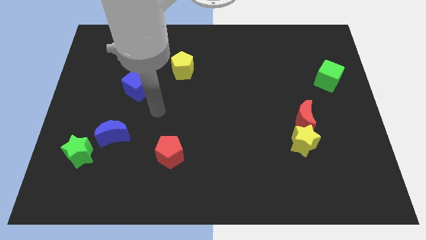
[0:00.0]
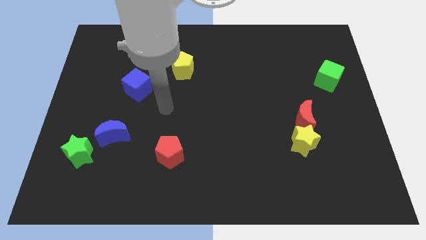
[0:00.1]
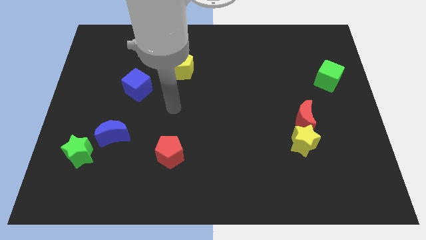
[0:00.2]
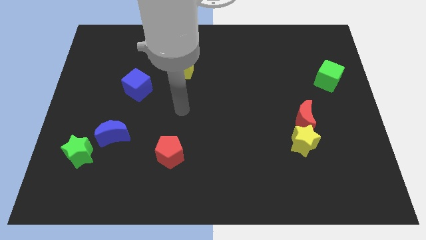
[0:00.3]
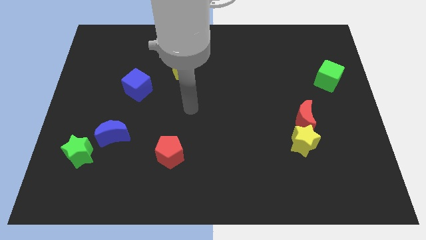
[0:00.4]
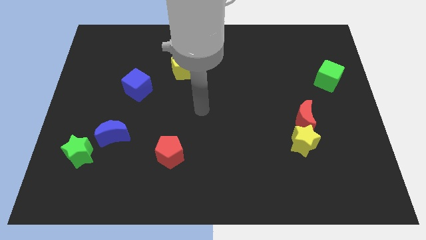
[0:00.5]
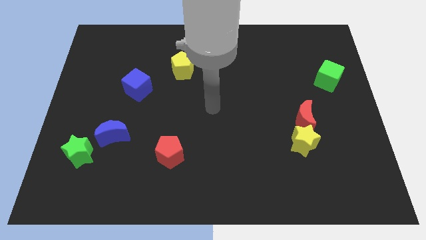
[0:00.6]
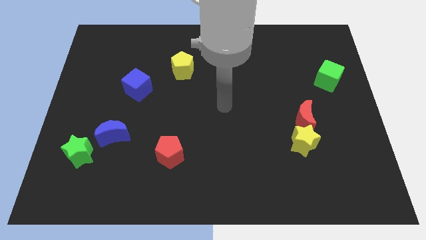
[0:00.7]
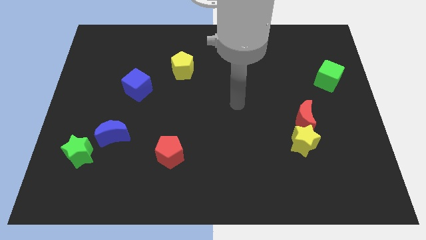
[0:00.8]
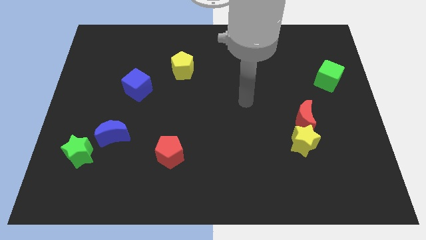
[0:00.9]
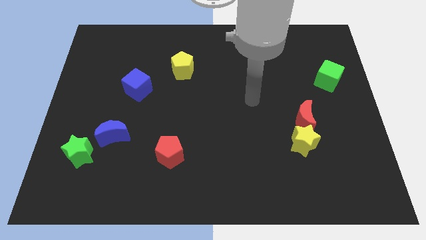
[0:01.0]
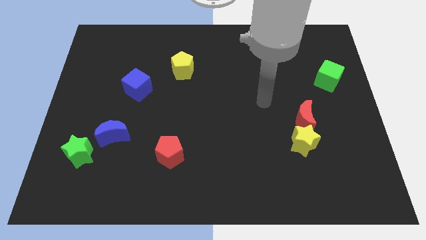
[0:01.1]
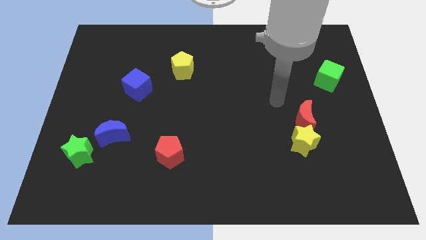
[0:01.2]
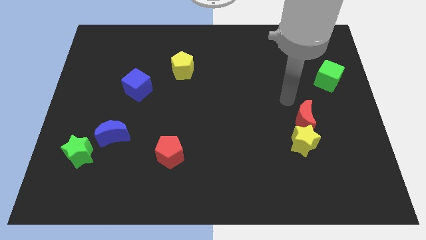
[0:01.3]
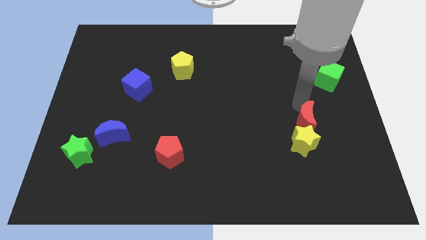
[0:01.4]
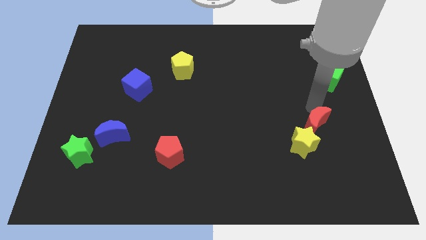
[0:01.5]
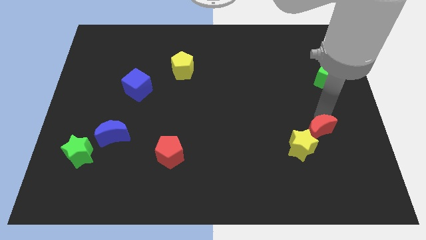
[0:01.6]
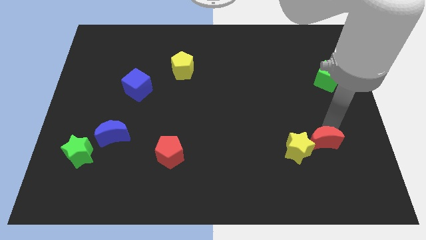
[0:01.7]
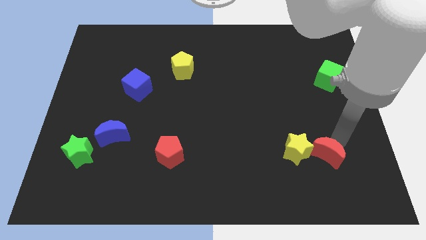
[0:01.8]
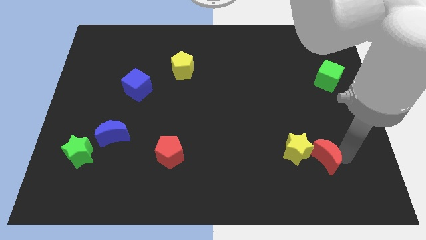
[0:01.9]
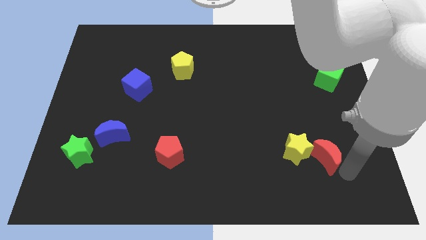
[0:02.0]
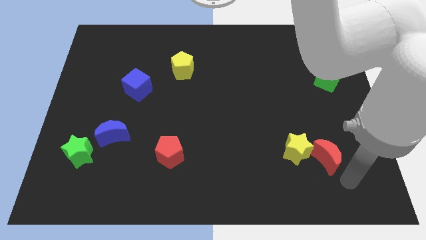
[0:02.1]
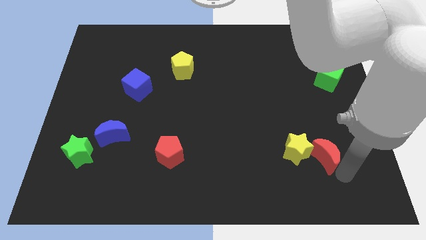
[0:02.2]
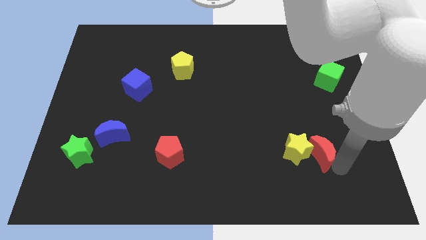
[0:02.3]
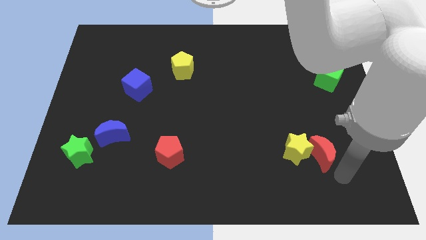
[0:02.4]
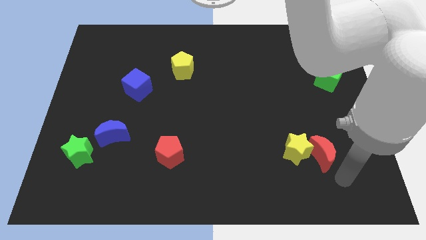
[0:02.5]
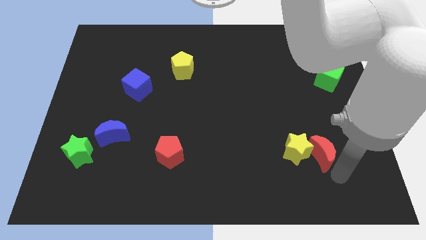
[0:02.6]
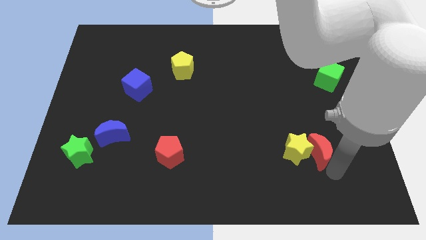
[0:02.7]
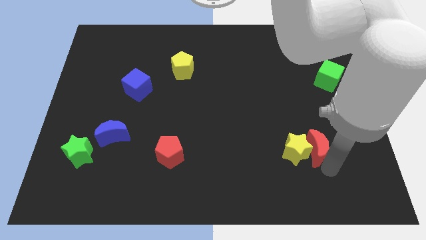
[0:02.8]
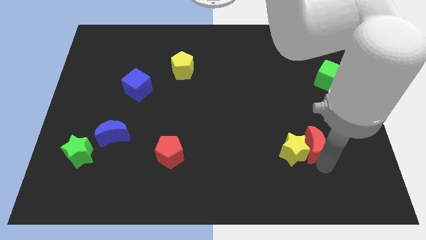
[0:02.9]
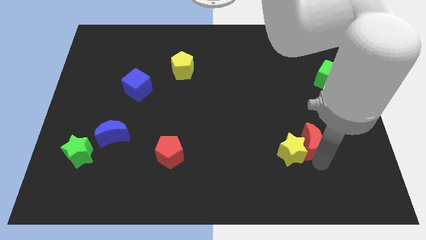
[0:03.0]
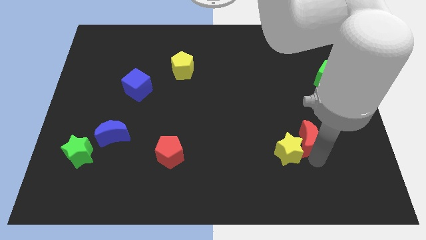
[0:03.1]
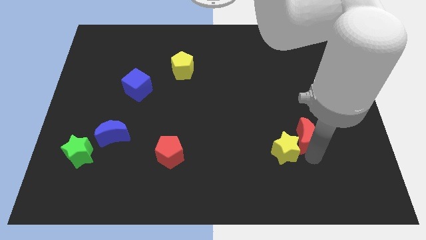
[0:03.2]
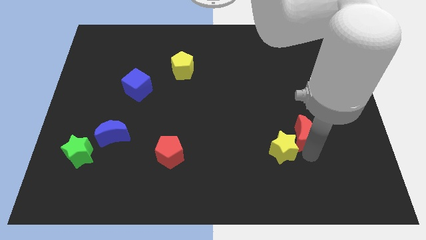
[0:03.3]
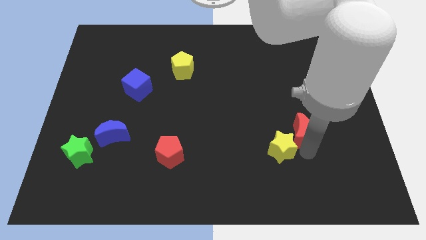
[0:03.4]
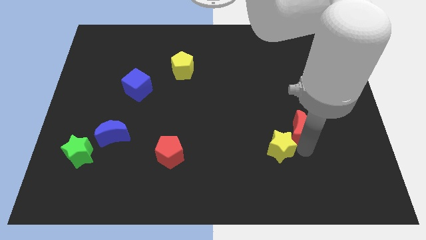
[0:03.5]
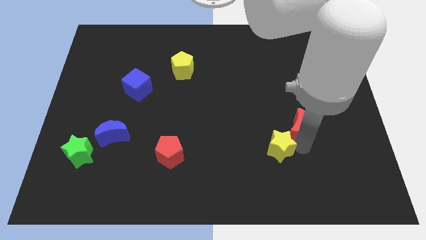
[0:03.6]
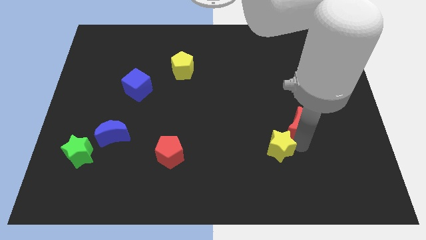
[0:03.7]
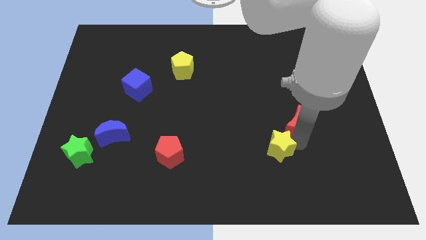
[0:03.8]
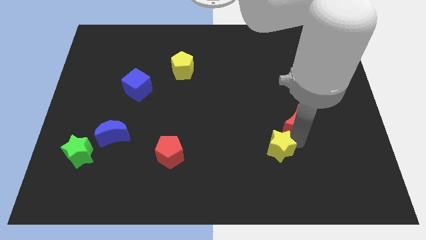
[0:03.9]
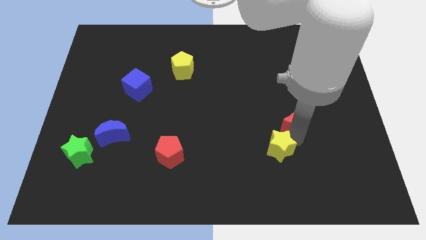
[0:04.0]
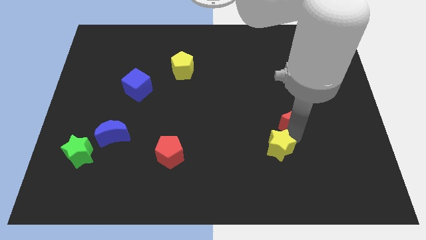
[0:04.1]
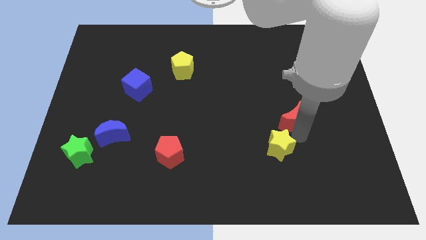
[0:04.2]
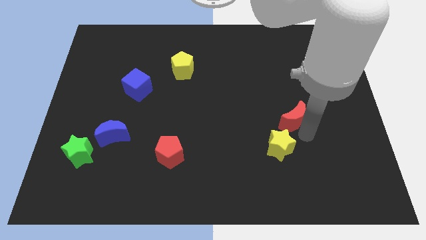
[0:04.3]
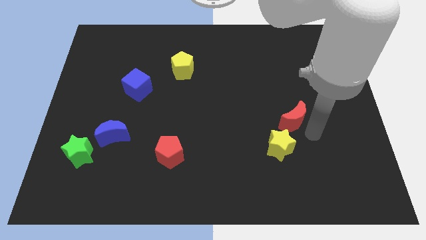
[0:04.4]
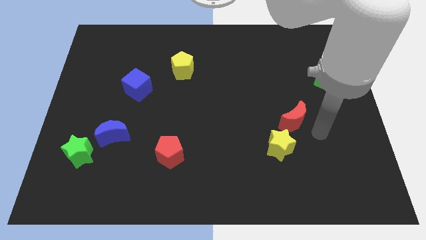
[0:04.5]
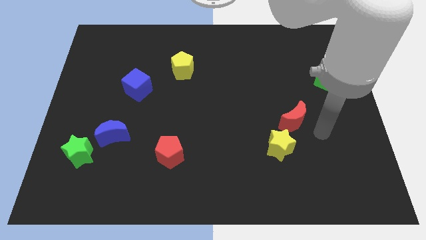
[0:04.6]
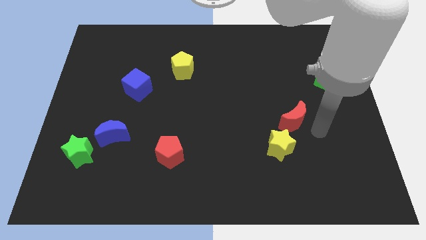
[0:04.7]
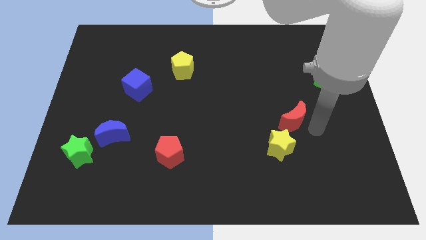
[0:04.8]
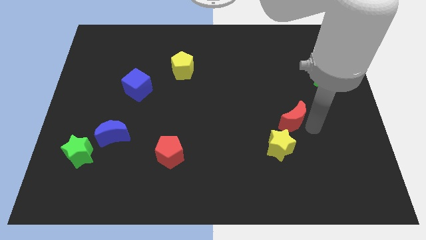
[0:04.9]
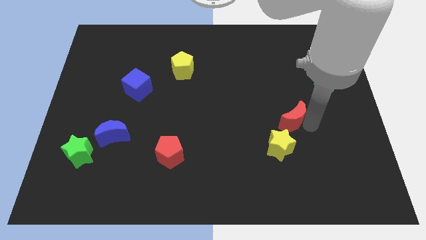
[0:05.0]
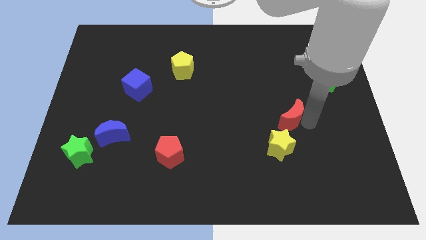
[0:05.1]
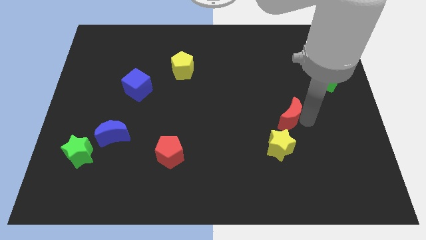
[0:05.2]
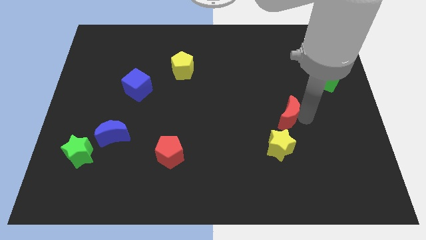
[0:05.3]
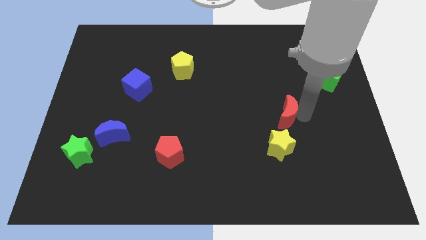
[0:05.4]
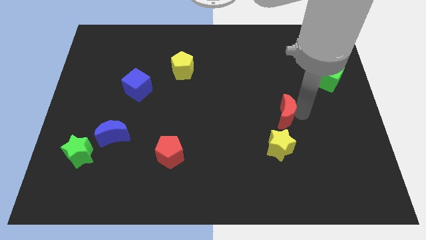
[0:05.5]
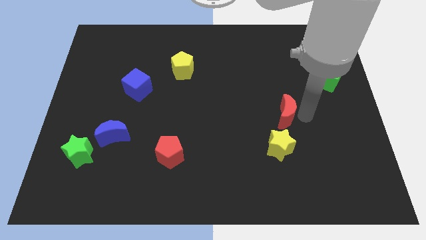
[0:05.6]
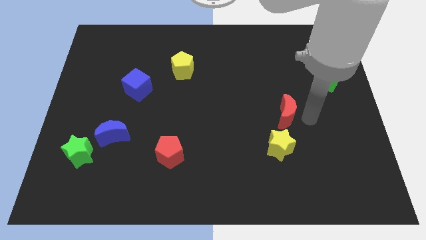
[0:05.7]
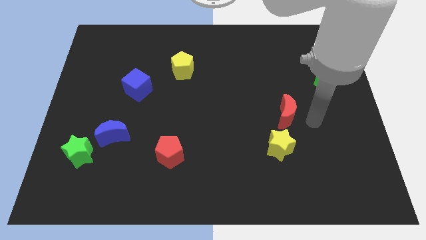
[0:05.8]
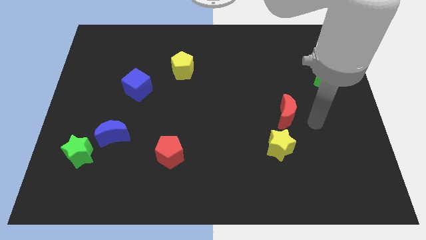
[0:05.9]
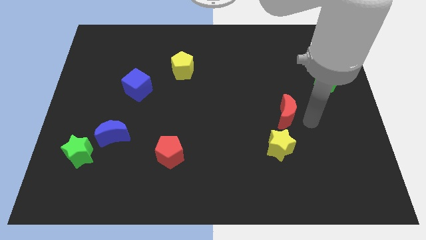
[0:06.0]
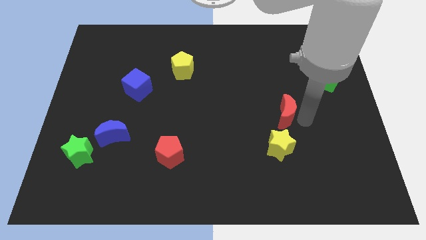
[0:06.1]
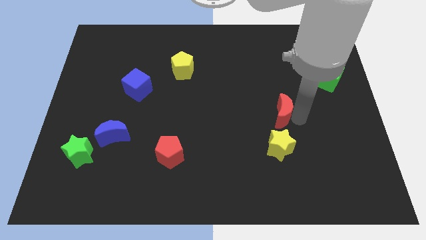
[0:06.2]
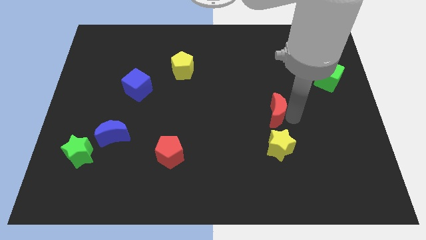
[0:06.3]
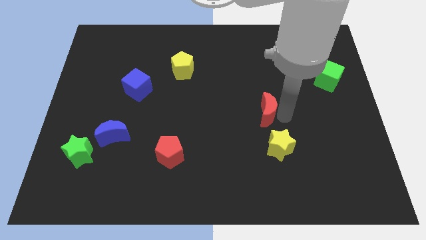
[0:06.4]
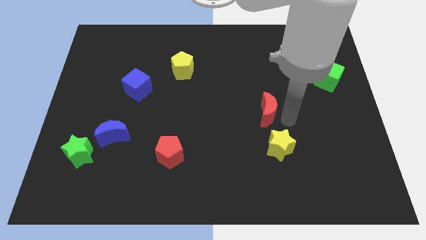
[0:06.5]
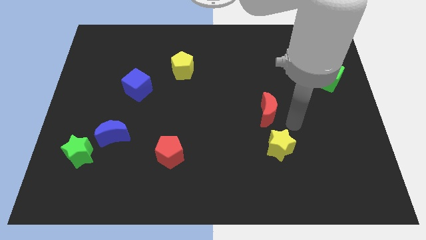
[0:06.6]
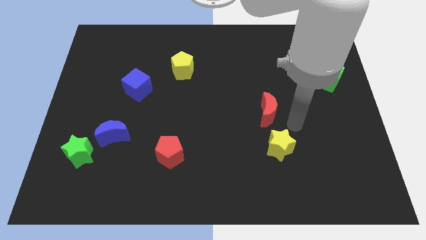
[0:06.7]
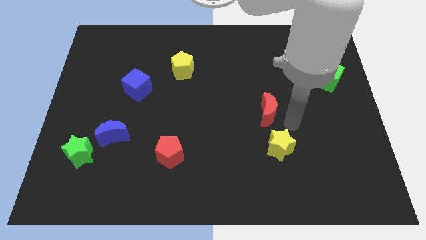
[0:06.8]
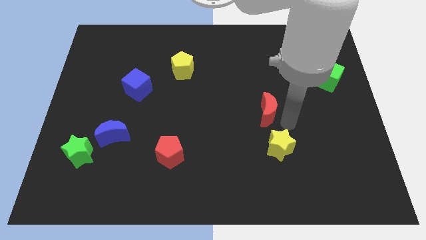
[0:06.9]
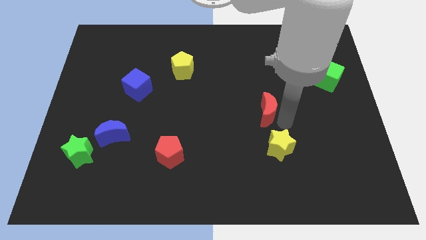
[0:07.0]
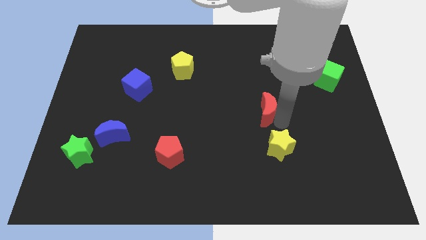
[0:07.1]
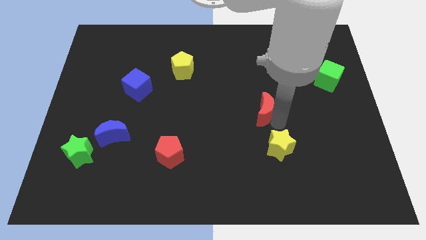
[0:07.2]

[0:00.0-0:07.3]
move the red moon to the center of the board
